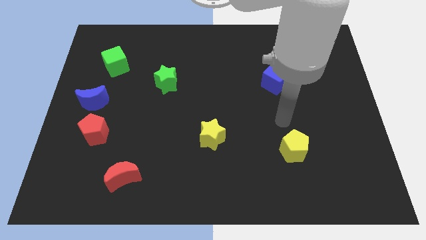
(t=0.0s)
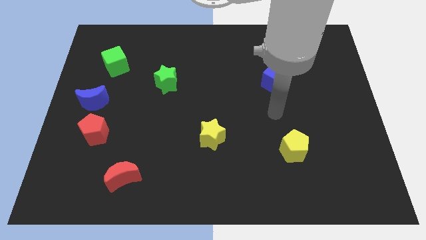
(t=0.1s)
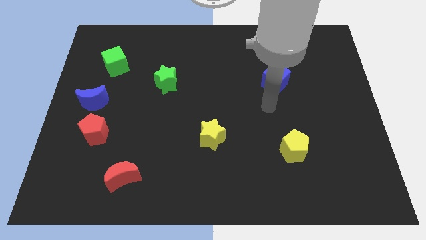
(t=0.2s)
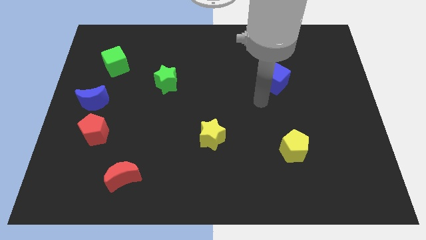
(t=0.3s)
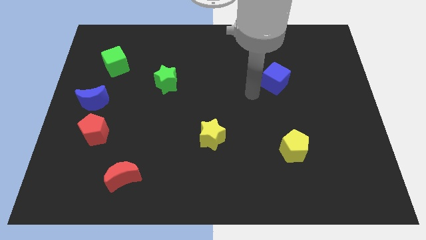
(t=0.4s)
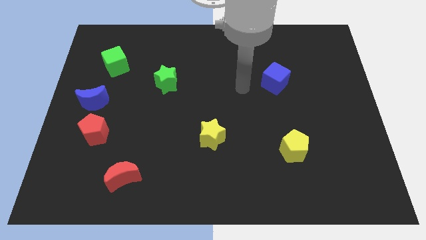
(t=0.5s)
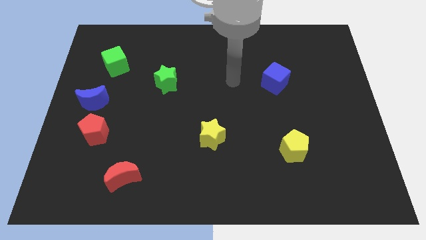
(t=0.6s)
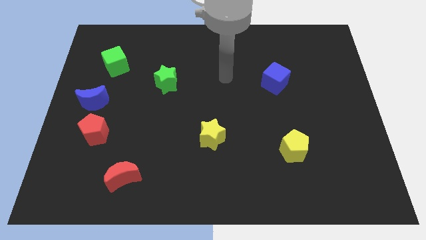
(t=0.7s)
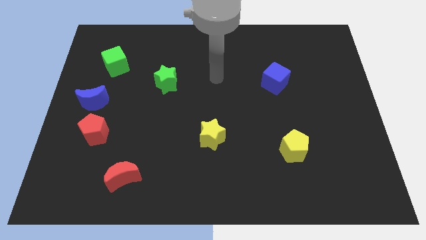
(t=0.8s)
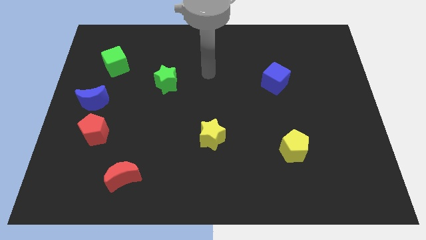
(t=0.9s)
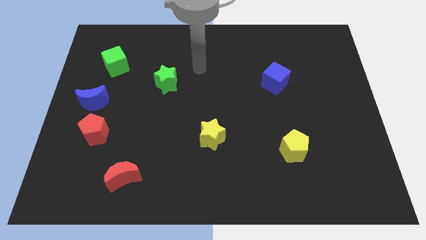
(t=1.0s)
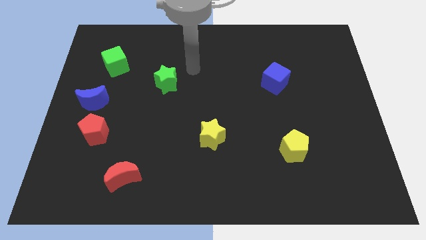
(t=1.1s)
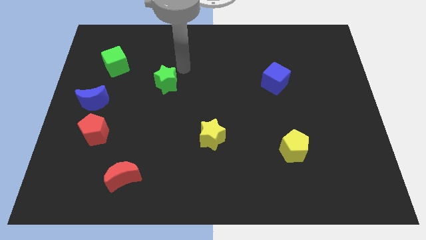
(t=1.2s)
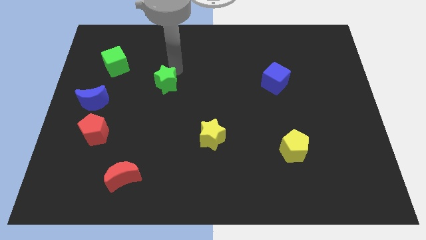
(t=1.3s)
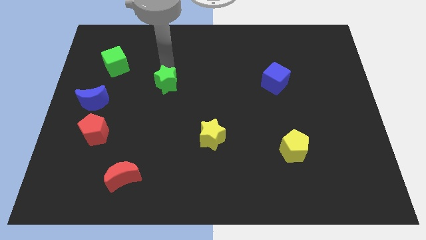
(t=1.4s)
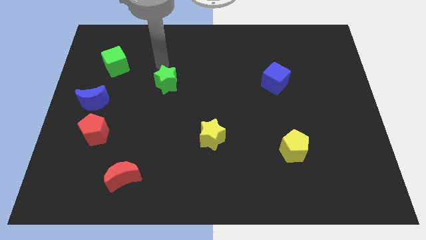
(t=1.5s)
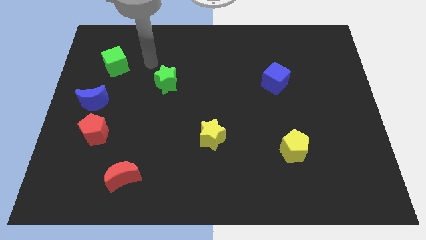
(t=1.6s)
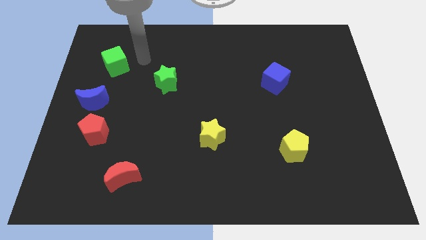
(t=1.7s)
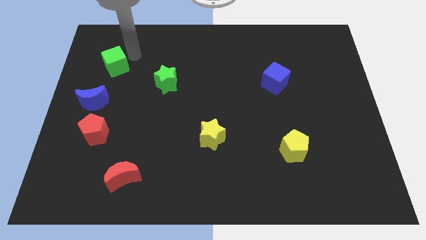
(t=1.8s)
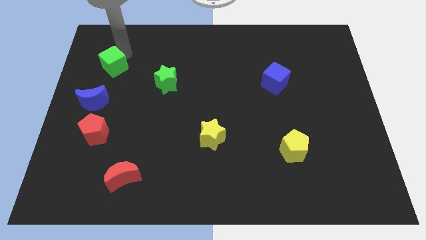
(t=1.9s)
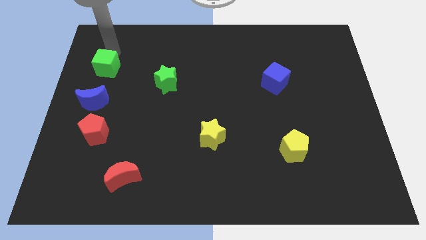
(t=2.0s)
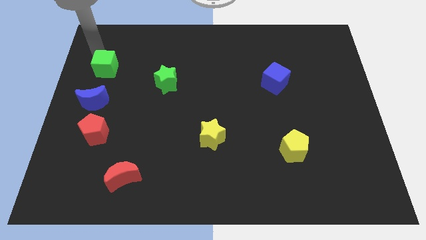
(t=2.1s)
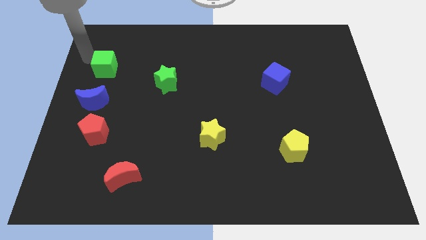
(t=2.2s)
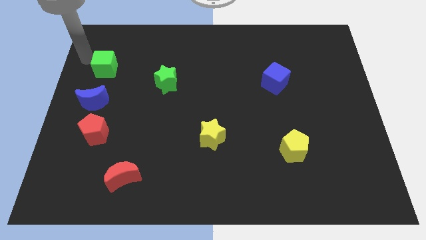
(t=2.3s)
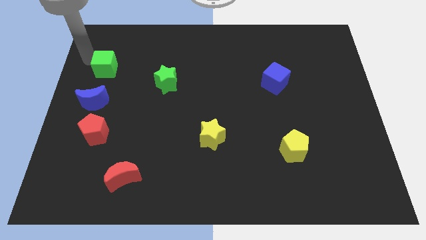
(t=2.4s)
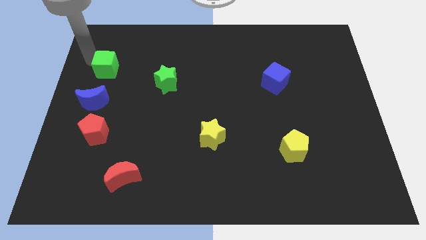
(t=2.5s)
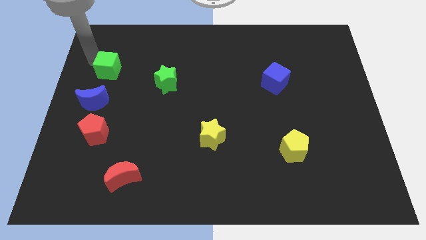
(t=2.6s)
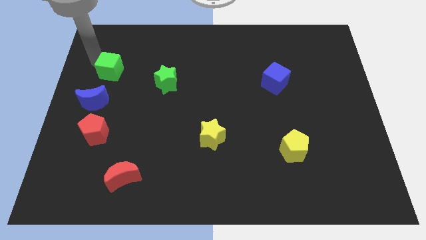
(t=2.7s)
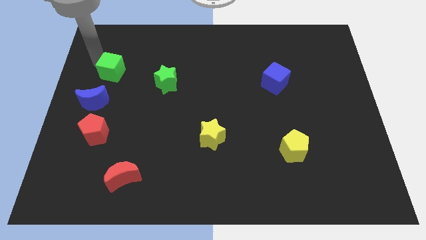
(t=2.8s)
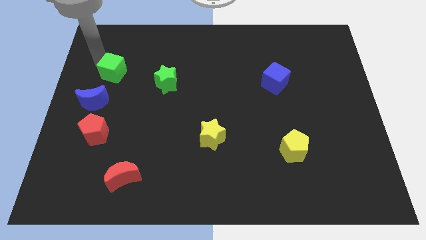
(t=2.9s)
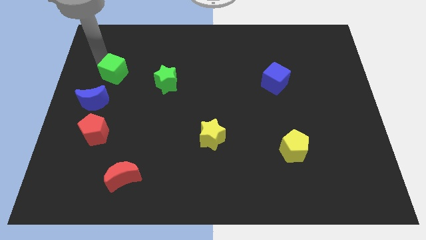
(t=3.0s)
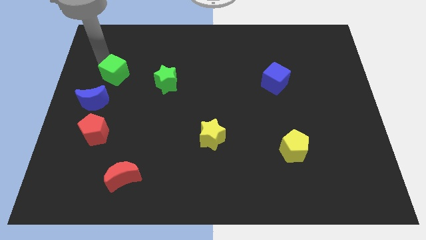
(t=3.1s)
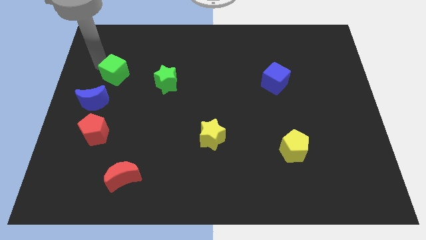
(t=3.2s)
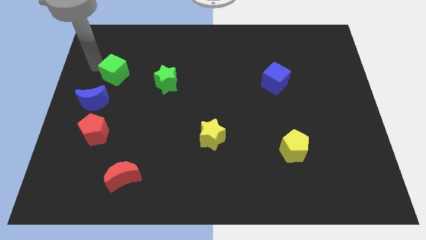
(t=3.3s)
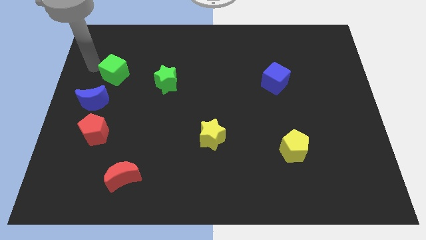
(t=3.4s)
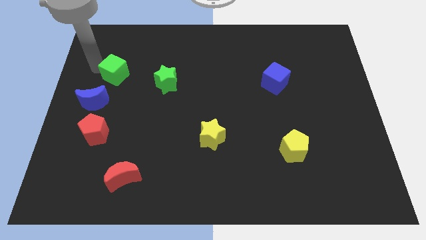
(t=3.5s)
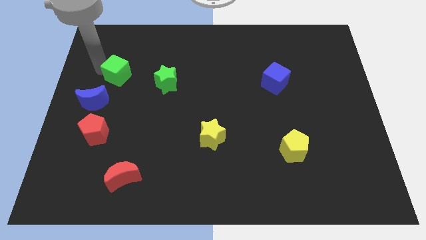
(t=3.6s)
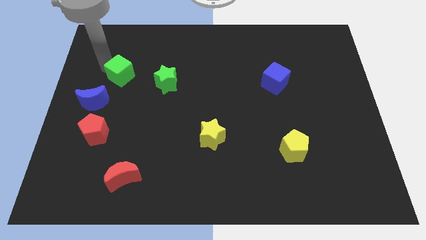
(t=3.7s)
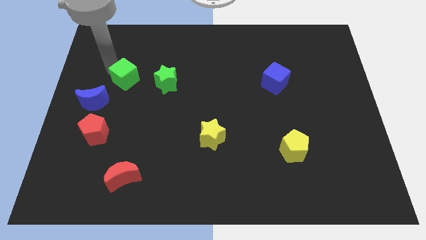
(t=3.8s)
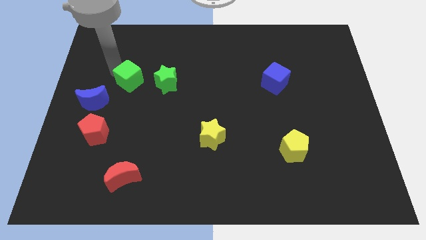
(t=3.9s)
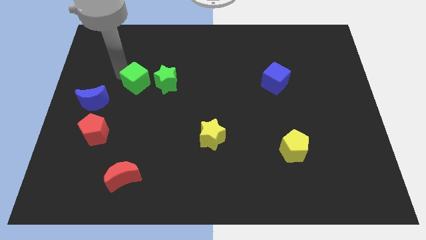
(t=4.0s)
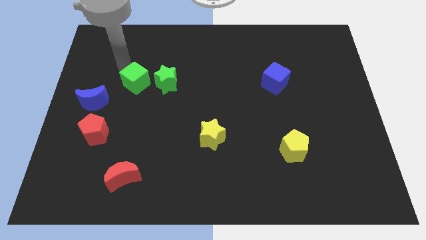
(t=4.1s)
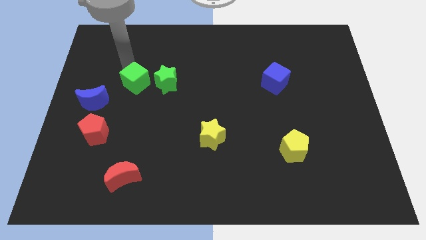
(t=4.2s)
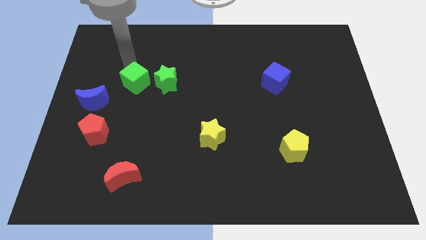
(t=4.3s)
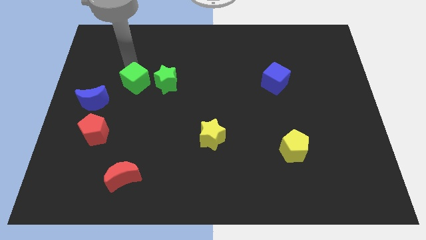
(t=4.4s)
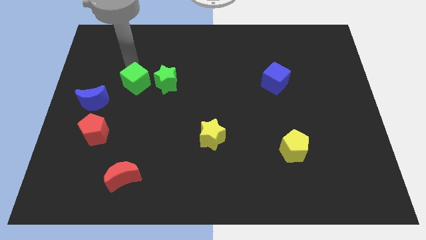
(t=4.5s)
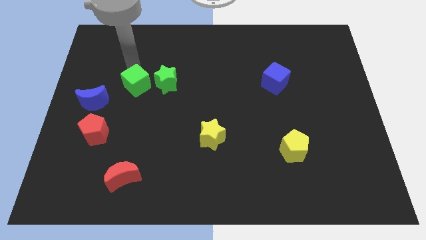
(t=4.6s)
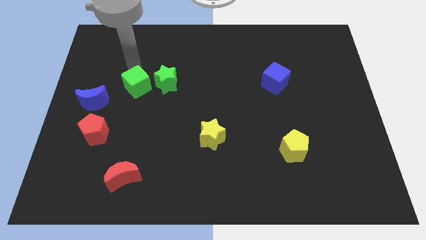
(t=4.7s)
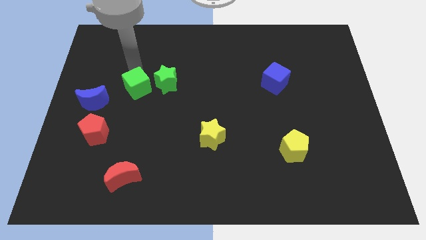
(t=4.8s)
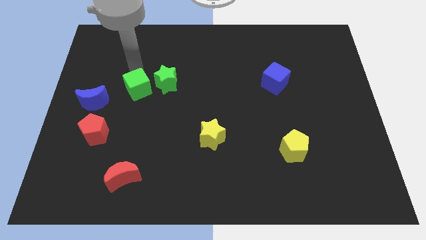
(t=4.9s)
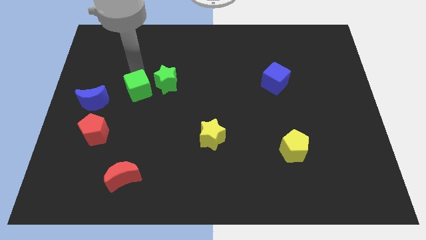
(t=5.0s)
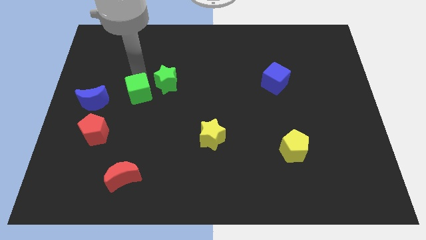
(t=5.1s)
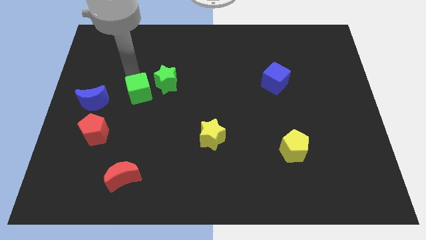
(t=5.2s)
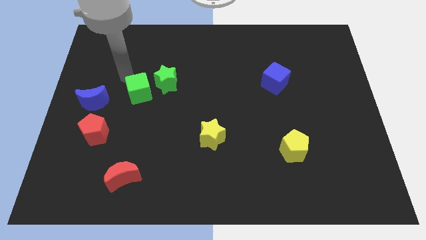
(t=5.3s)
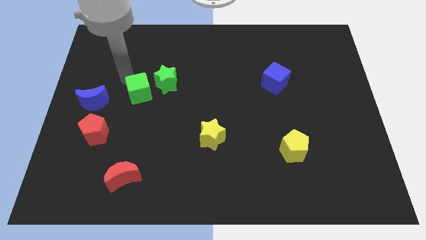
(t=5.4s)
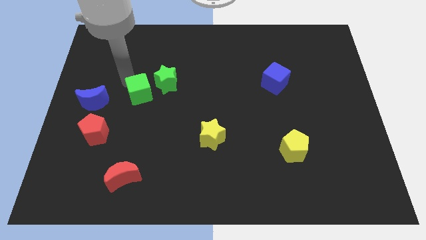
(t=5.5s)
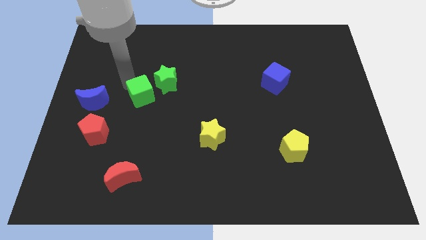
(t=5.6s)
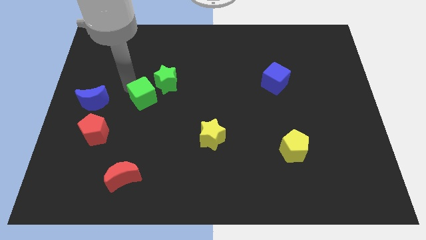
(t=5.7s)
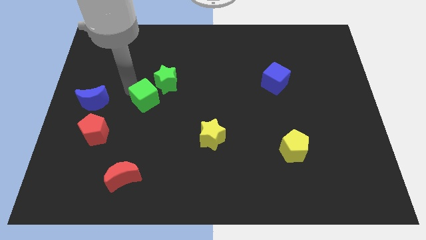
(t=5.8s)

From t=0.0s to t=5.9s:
put the green cube below the green star

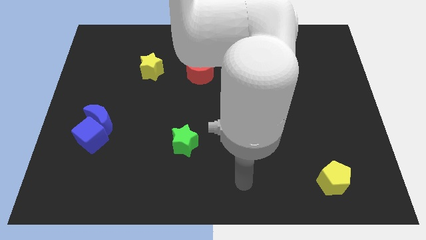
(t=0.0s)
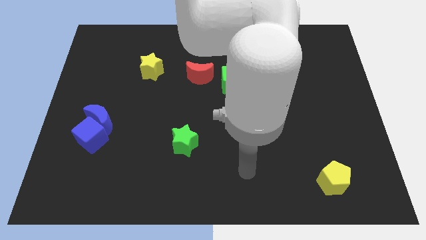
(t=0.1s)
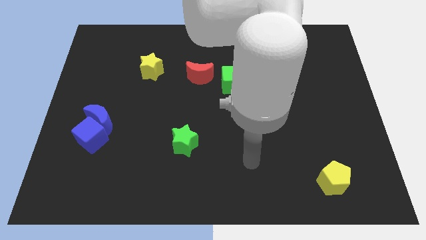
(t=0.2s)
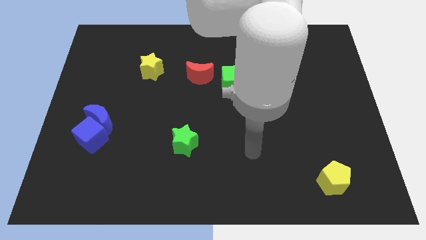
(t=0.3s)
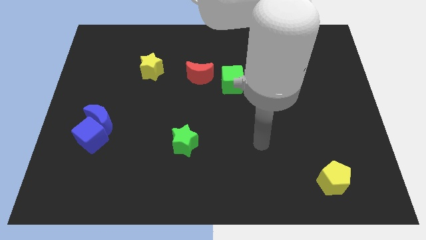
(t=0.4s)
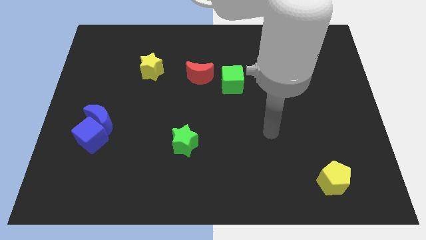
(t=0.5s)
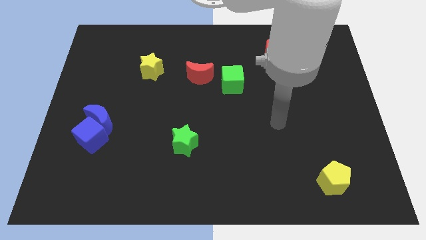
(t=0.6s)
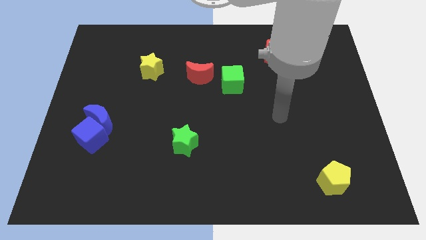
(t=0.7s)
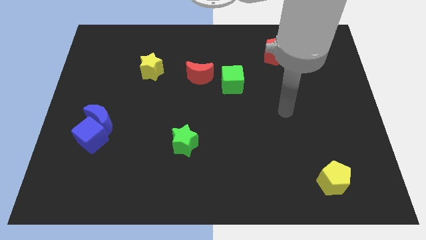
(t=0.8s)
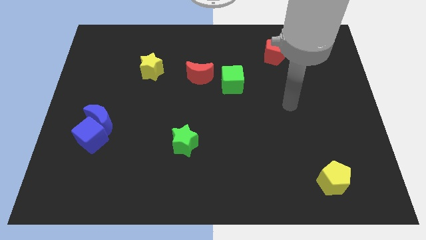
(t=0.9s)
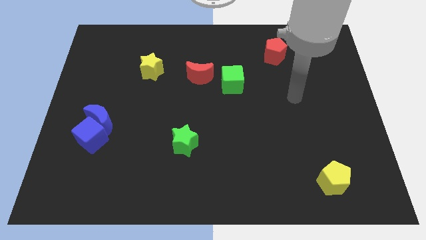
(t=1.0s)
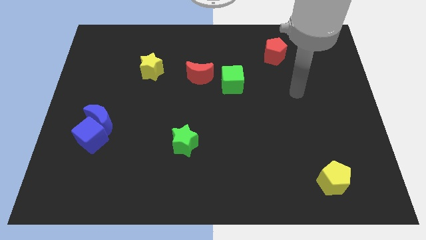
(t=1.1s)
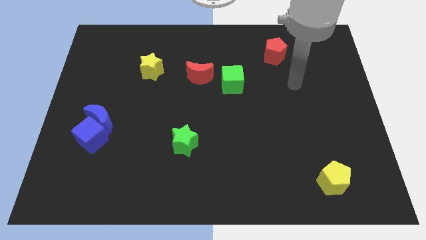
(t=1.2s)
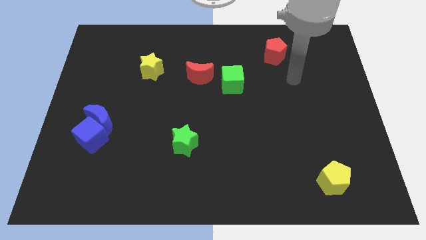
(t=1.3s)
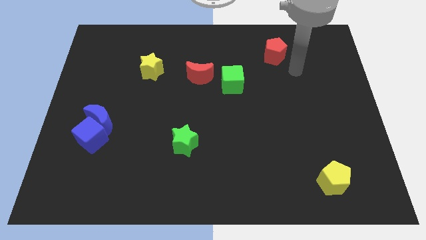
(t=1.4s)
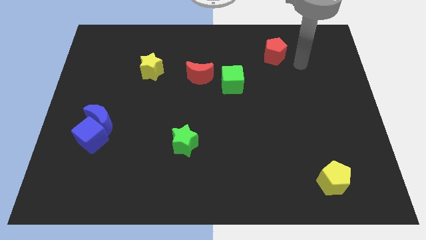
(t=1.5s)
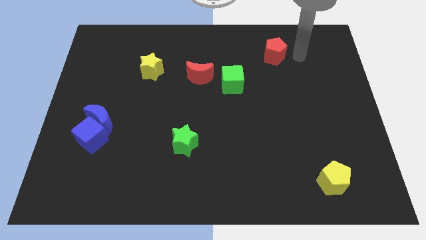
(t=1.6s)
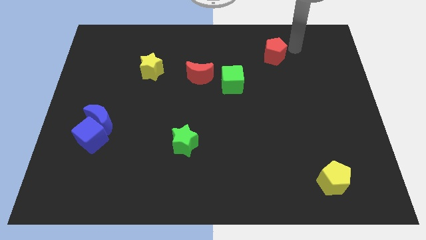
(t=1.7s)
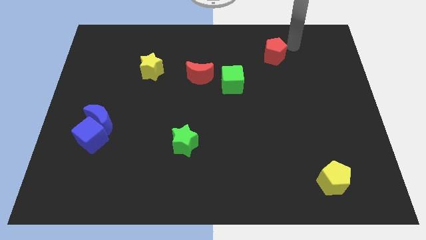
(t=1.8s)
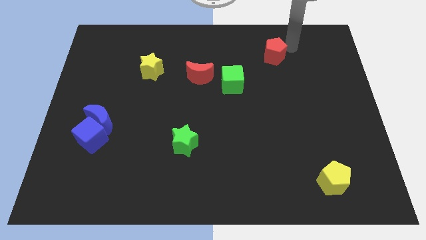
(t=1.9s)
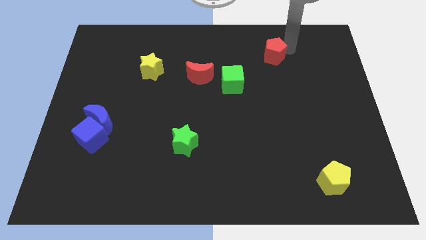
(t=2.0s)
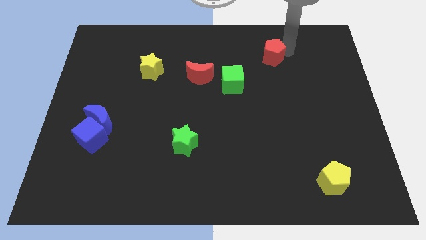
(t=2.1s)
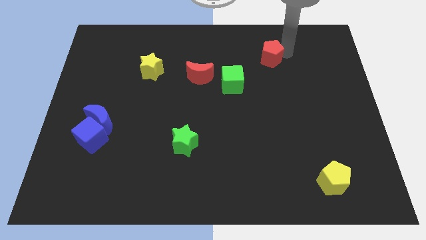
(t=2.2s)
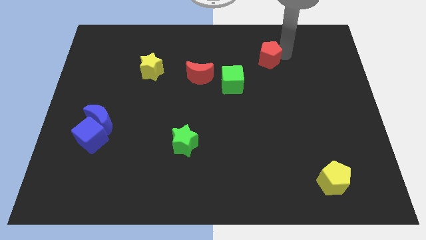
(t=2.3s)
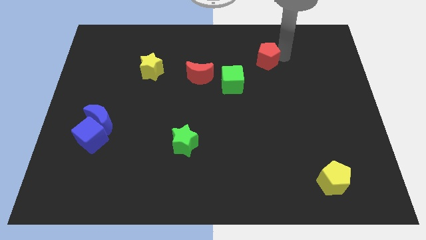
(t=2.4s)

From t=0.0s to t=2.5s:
push the red pentagon diagonally up and to the right of the green cube
